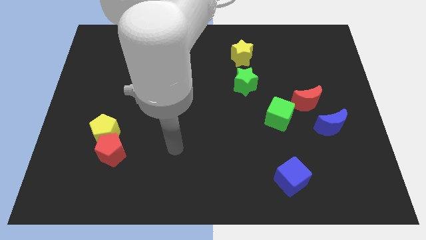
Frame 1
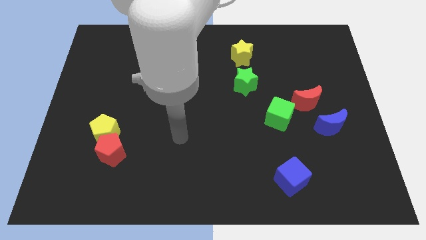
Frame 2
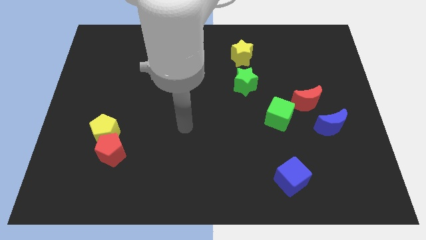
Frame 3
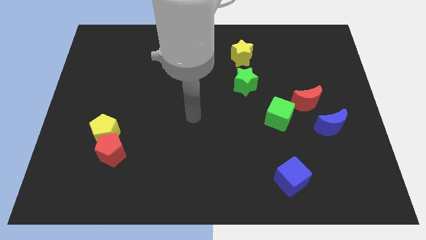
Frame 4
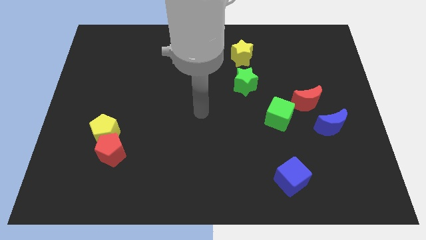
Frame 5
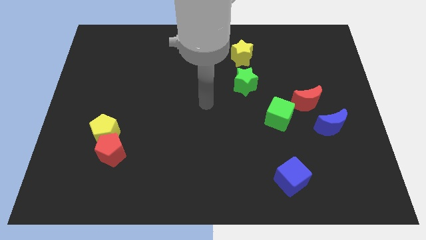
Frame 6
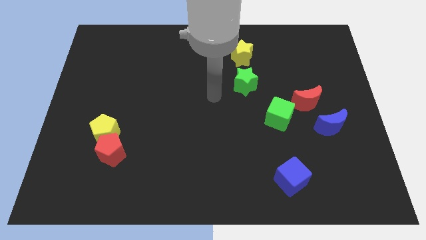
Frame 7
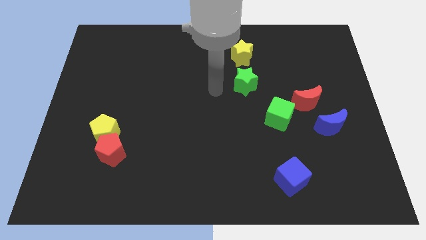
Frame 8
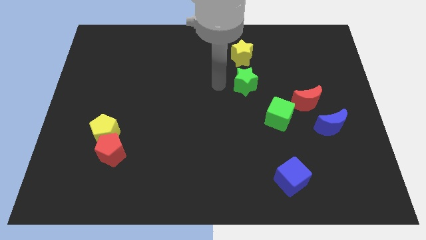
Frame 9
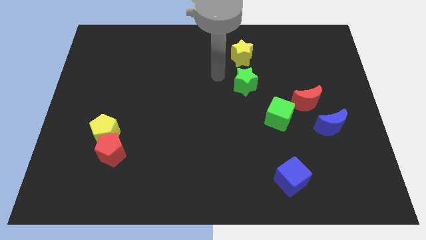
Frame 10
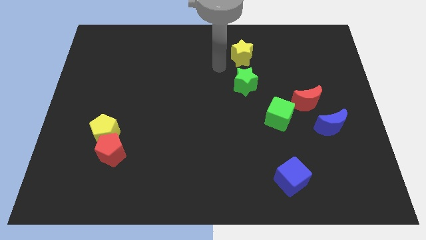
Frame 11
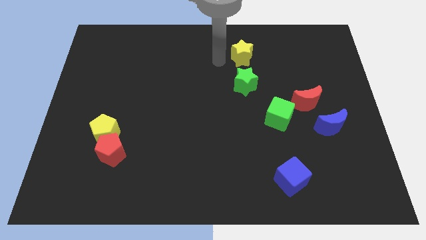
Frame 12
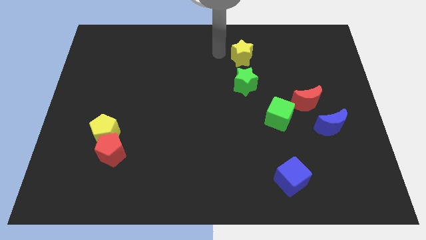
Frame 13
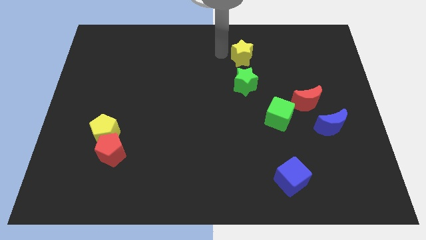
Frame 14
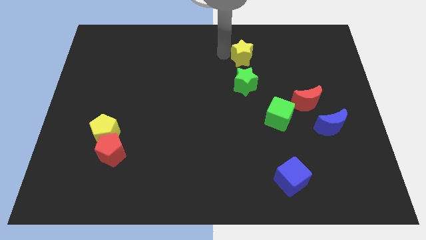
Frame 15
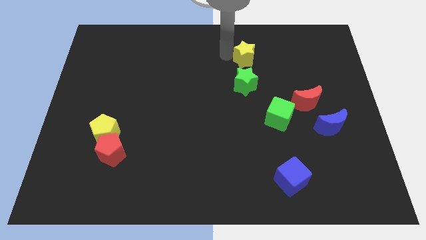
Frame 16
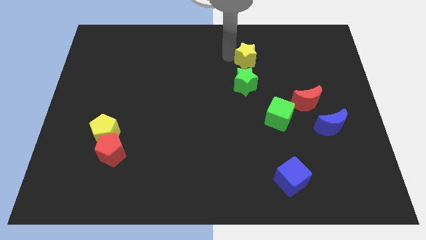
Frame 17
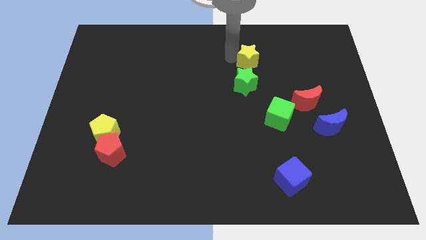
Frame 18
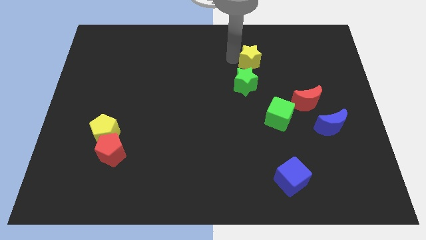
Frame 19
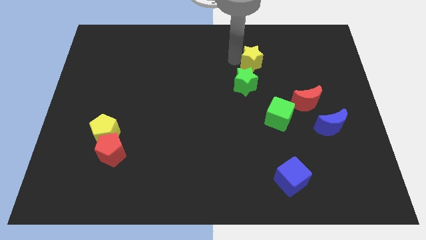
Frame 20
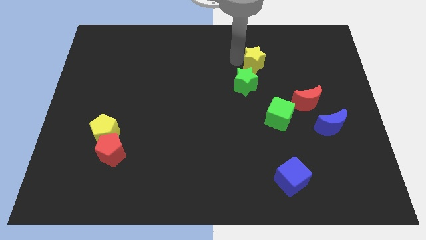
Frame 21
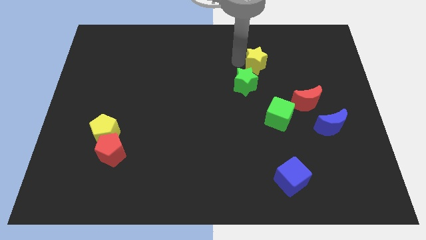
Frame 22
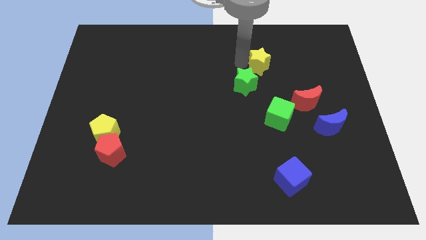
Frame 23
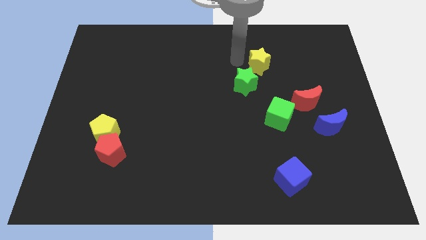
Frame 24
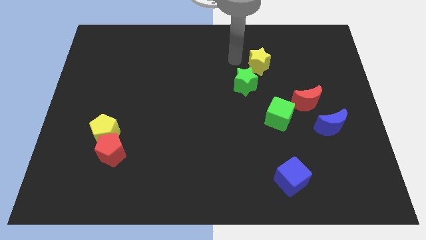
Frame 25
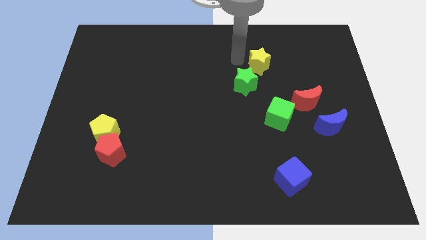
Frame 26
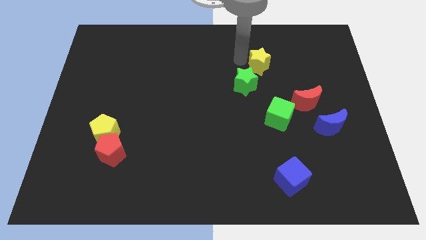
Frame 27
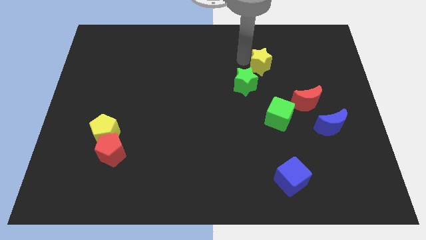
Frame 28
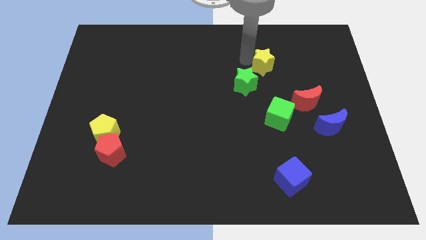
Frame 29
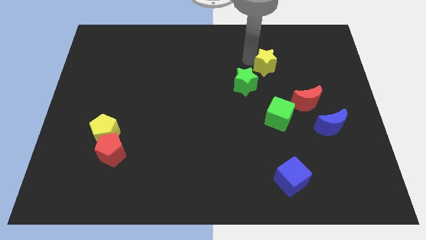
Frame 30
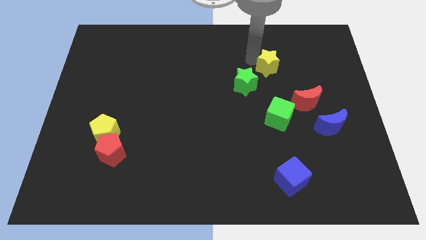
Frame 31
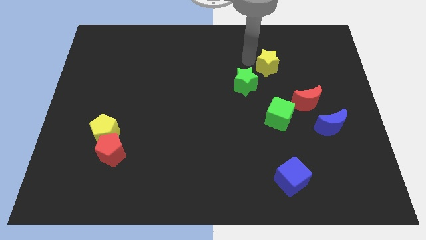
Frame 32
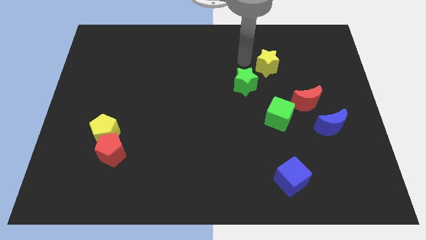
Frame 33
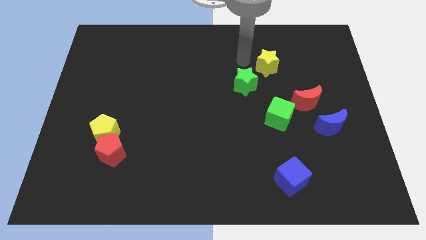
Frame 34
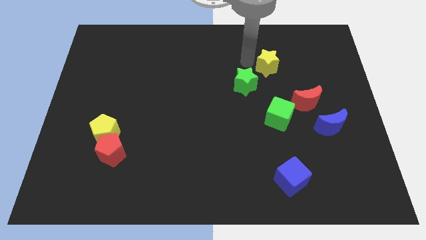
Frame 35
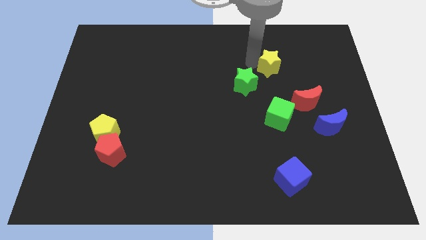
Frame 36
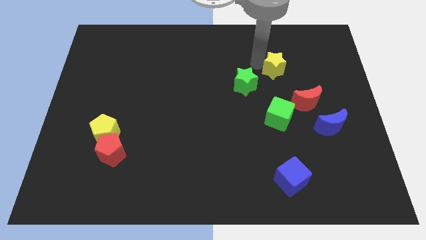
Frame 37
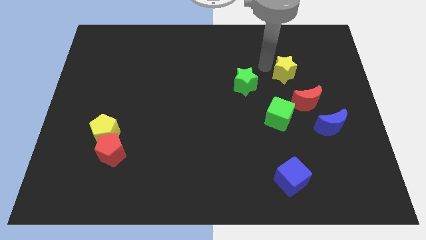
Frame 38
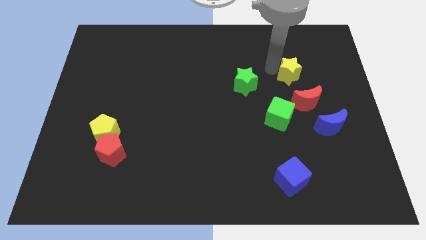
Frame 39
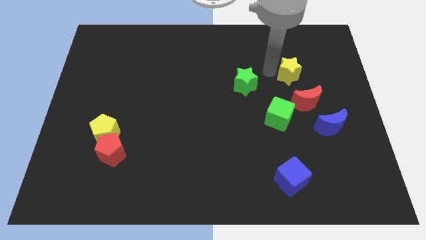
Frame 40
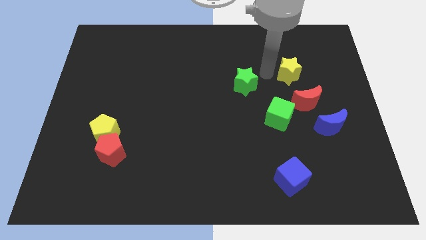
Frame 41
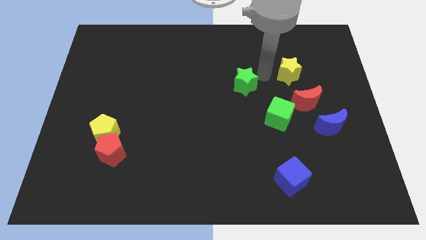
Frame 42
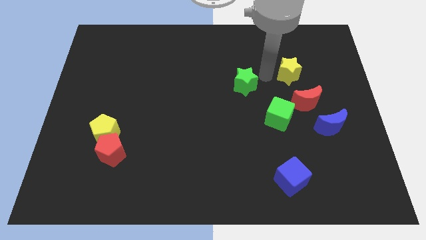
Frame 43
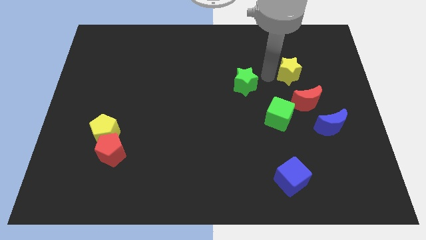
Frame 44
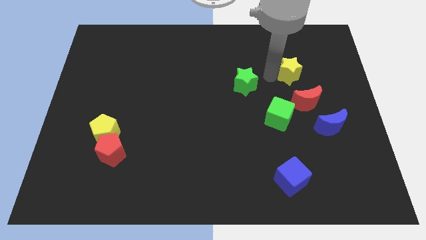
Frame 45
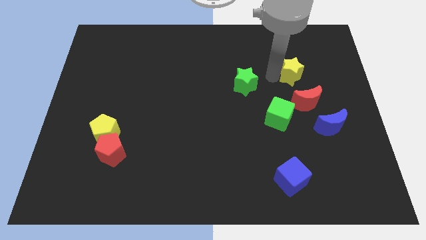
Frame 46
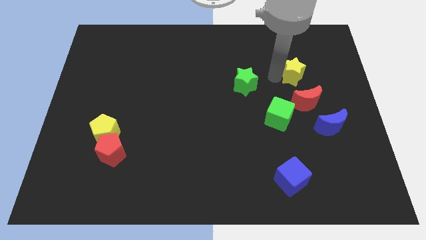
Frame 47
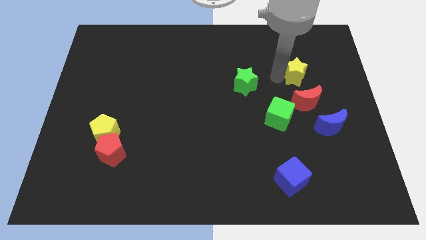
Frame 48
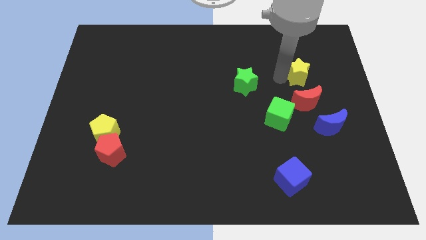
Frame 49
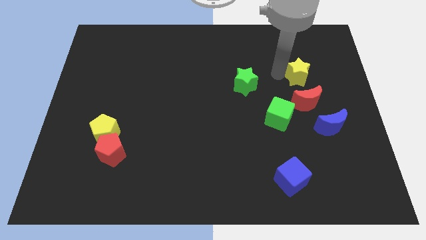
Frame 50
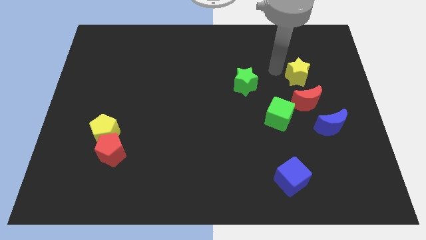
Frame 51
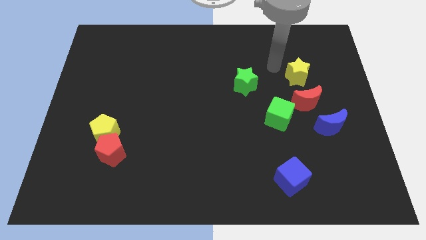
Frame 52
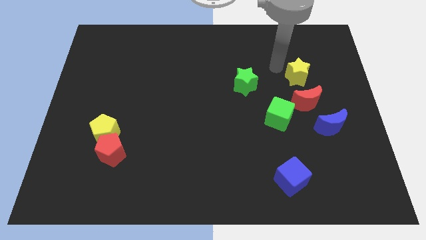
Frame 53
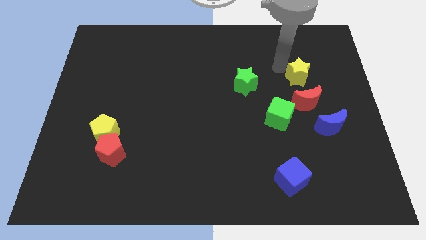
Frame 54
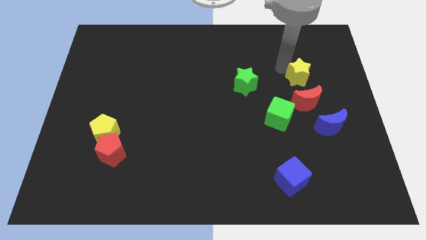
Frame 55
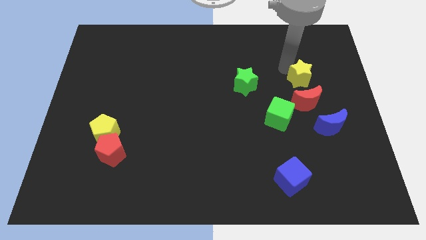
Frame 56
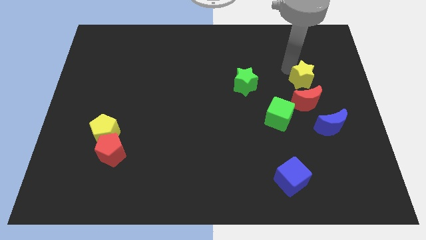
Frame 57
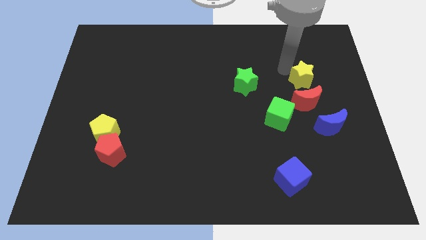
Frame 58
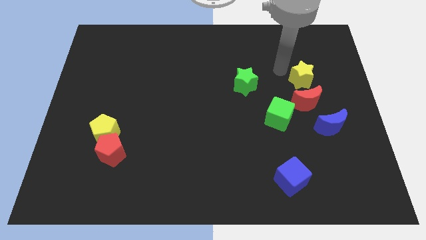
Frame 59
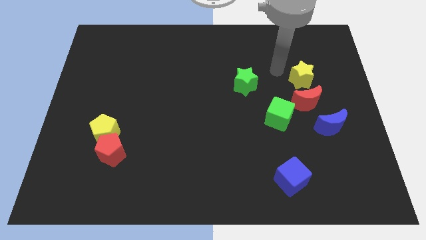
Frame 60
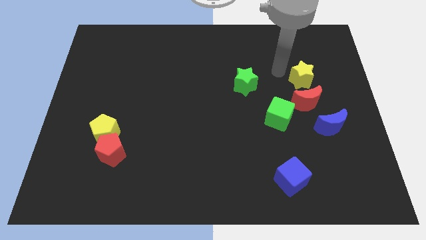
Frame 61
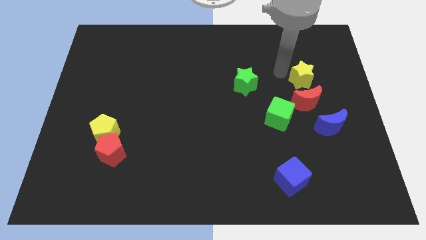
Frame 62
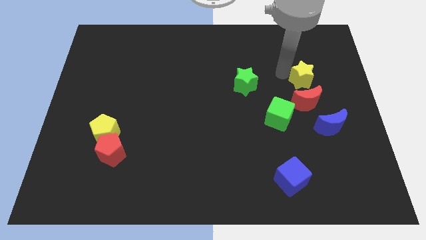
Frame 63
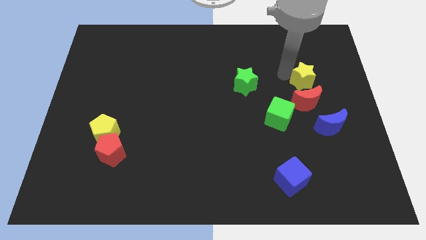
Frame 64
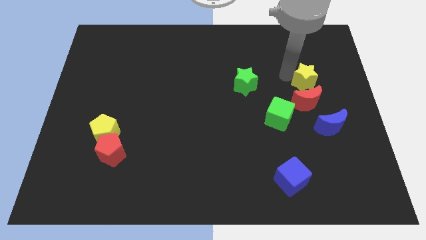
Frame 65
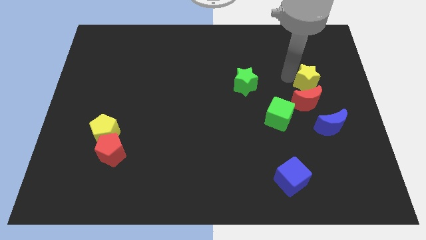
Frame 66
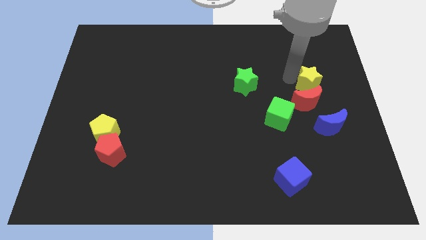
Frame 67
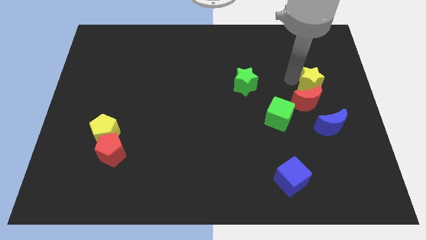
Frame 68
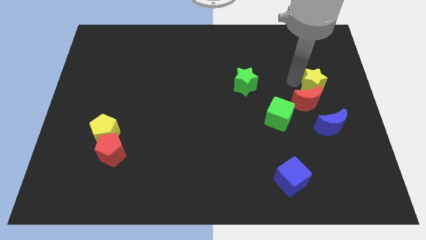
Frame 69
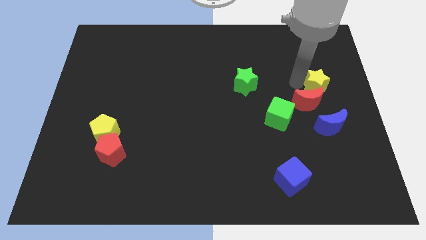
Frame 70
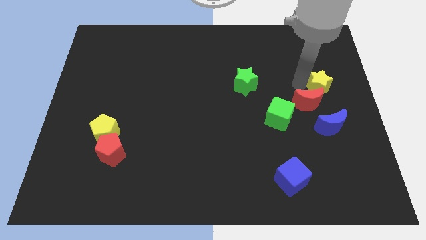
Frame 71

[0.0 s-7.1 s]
slide the yellow star to the center right
